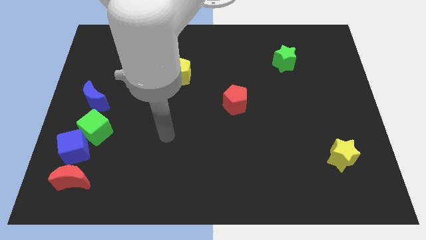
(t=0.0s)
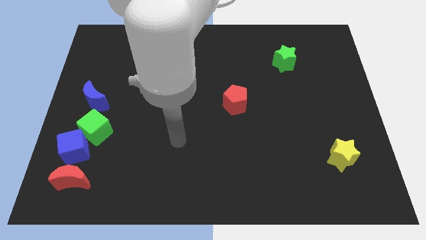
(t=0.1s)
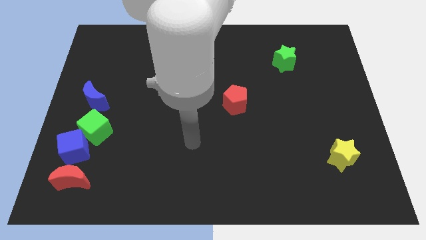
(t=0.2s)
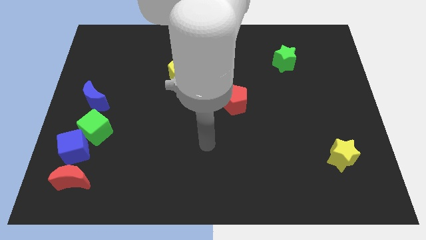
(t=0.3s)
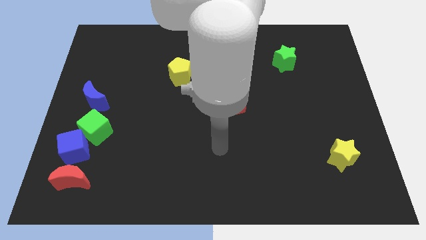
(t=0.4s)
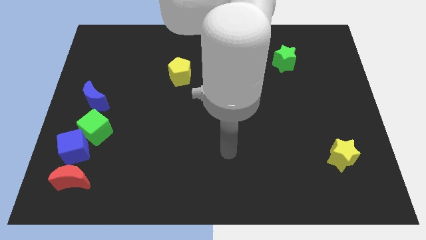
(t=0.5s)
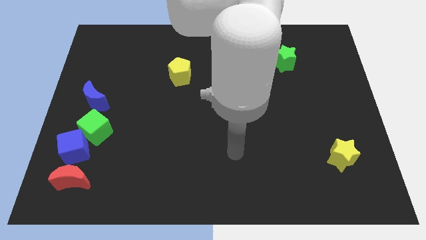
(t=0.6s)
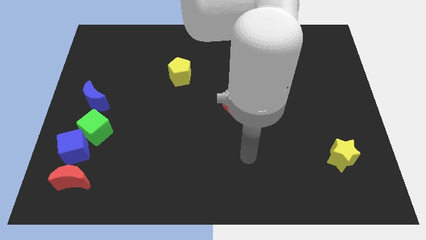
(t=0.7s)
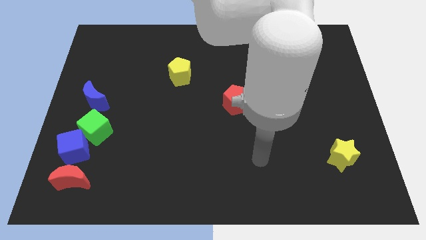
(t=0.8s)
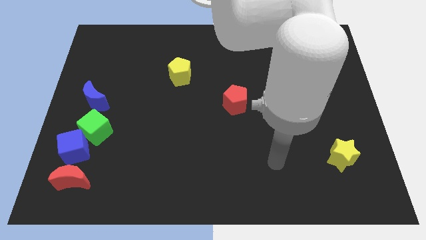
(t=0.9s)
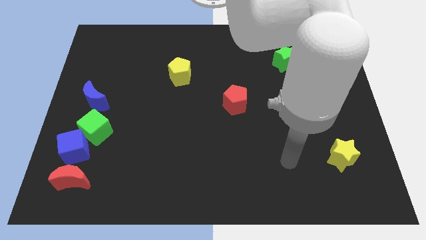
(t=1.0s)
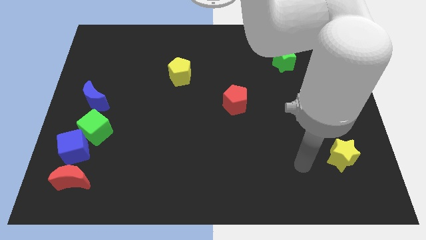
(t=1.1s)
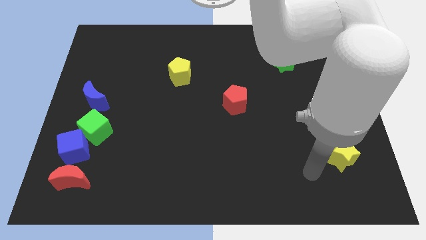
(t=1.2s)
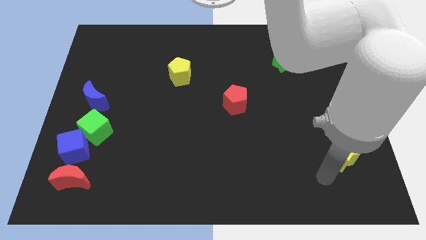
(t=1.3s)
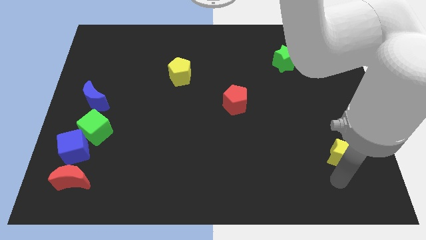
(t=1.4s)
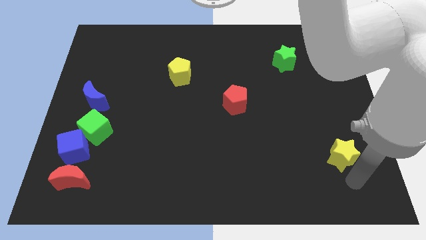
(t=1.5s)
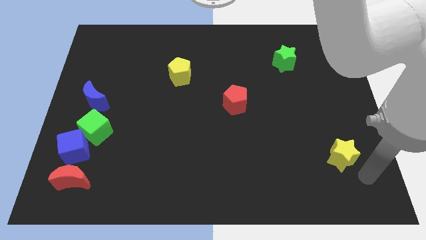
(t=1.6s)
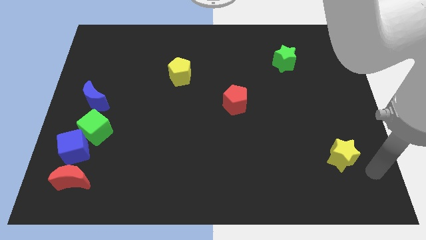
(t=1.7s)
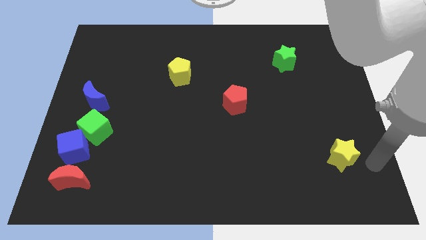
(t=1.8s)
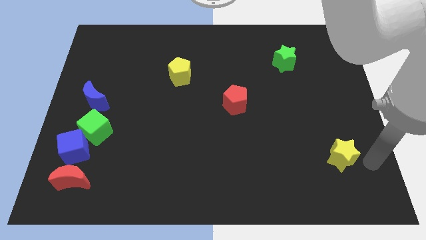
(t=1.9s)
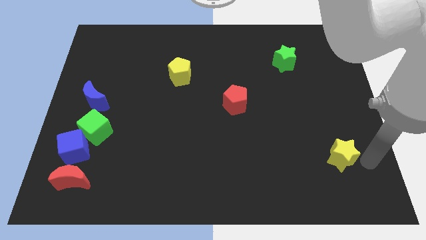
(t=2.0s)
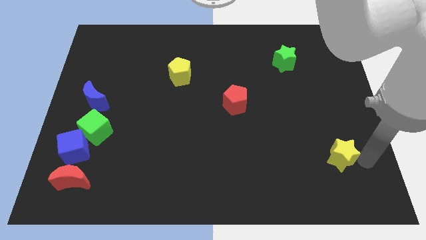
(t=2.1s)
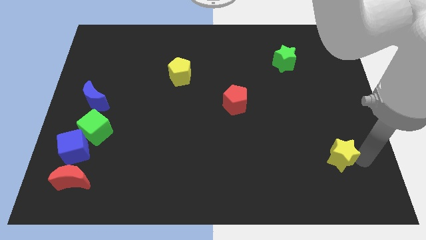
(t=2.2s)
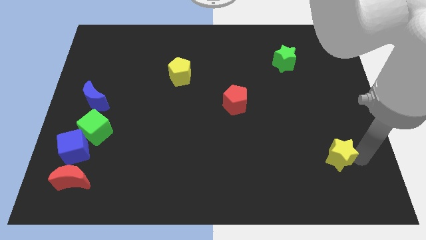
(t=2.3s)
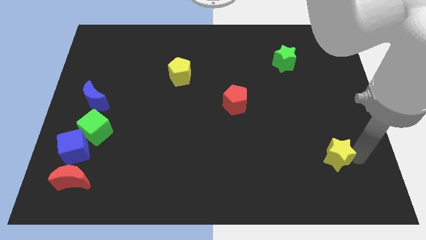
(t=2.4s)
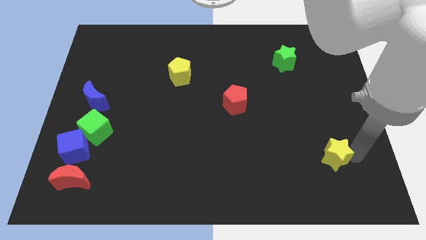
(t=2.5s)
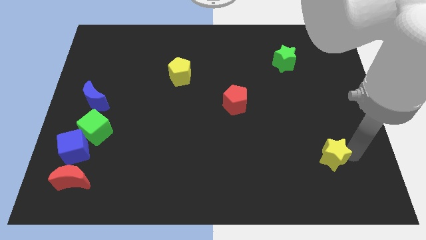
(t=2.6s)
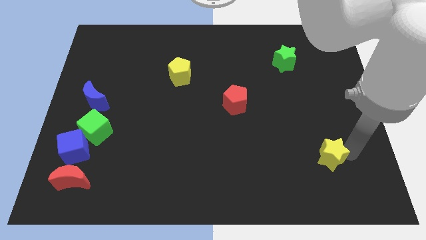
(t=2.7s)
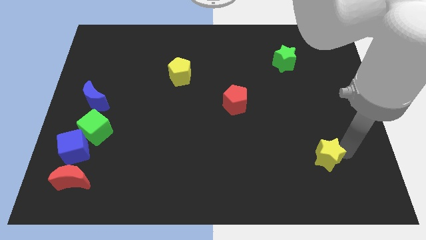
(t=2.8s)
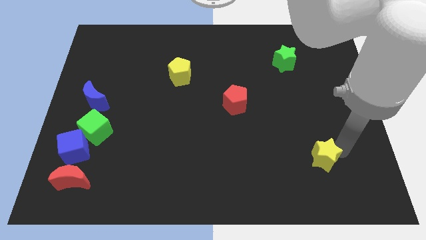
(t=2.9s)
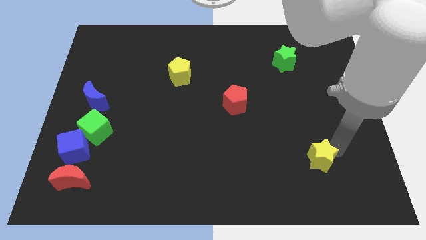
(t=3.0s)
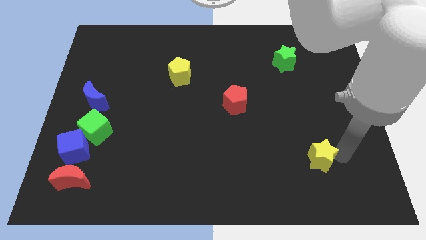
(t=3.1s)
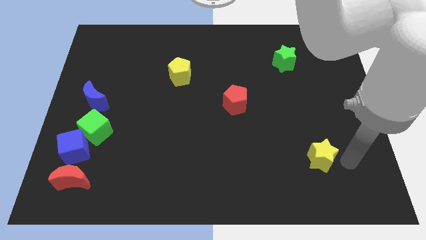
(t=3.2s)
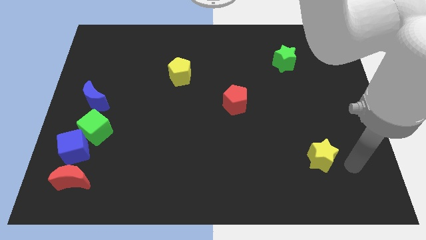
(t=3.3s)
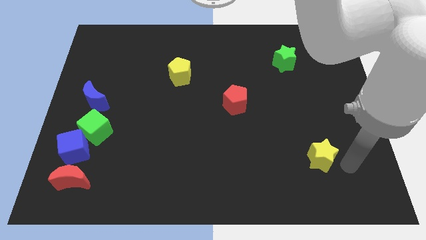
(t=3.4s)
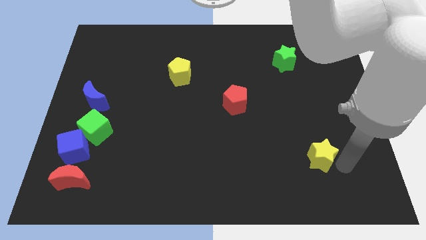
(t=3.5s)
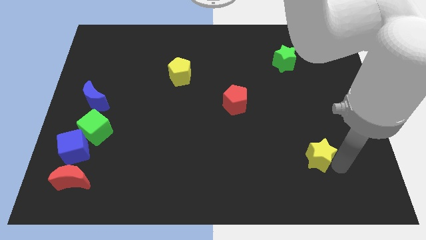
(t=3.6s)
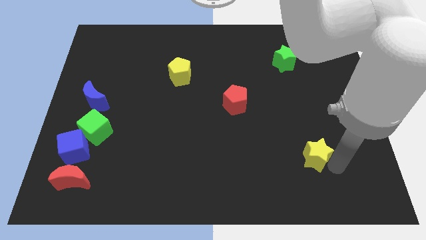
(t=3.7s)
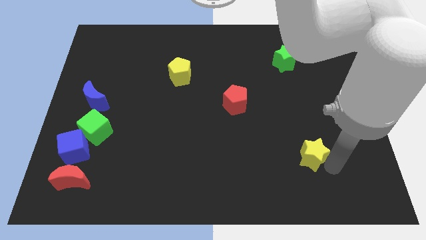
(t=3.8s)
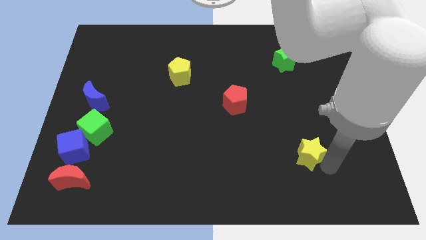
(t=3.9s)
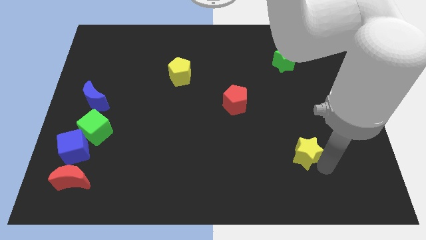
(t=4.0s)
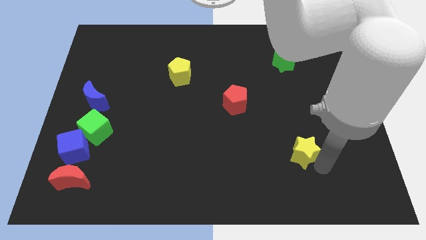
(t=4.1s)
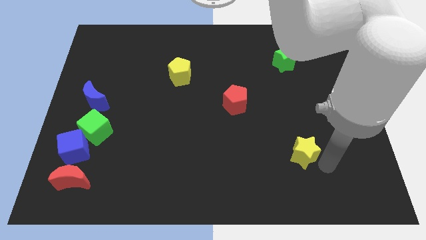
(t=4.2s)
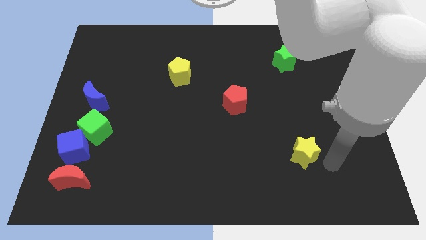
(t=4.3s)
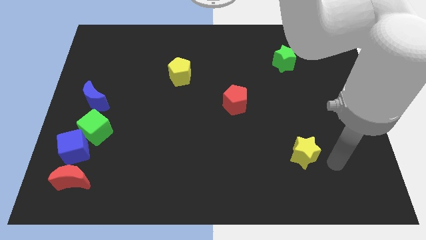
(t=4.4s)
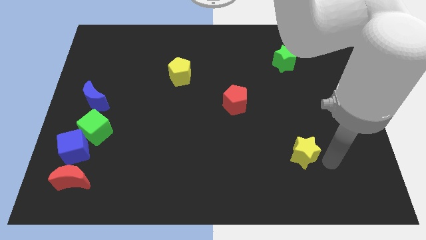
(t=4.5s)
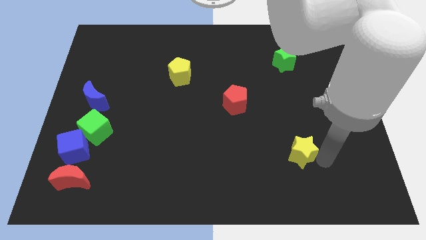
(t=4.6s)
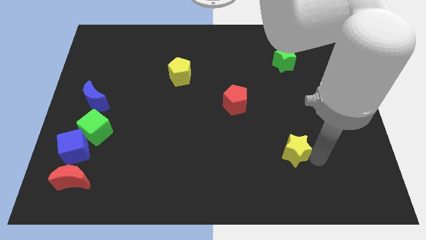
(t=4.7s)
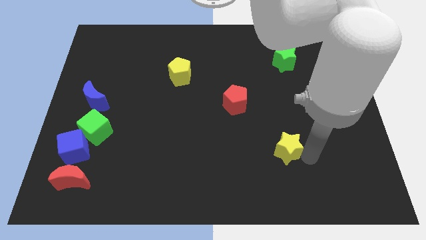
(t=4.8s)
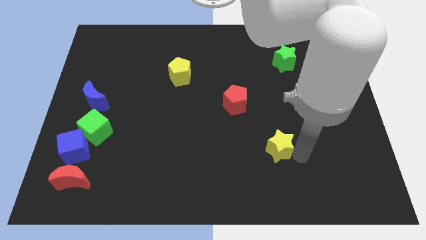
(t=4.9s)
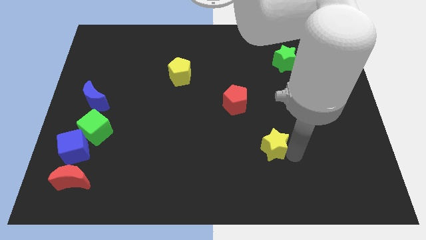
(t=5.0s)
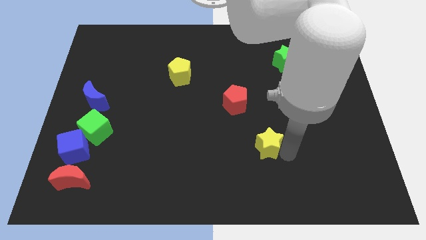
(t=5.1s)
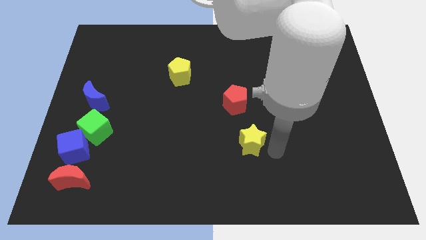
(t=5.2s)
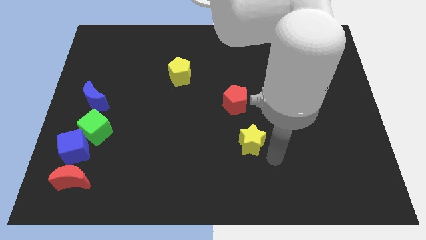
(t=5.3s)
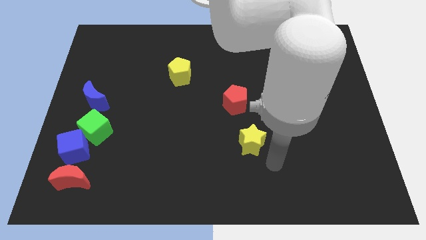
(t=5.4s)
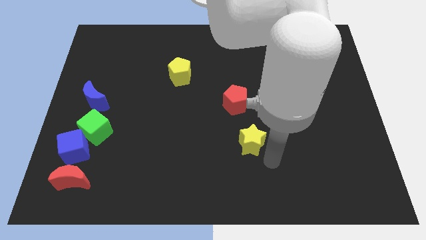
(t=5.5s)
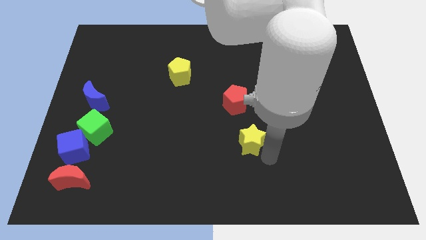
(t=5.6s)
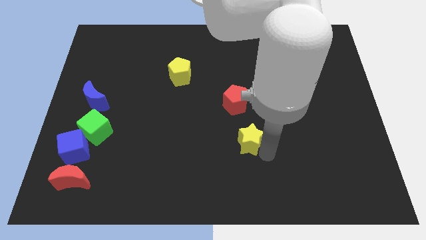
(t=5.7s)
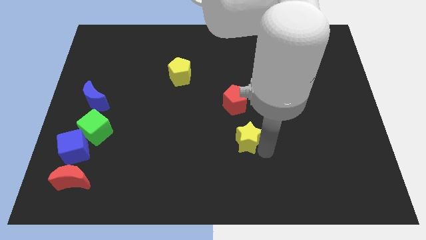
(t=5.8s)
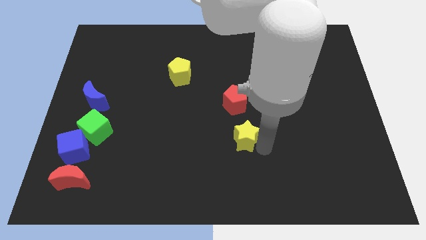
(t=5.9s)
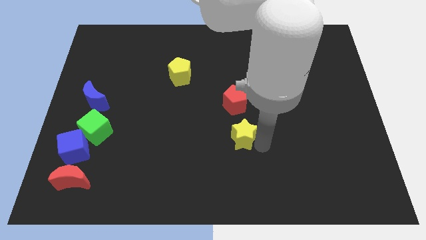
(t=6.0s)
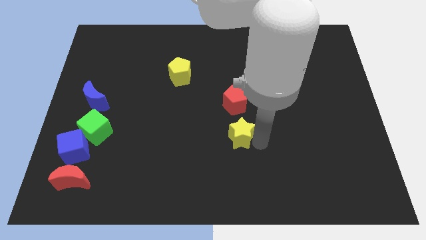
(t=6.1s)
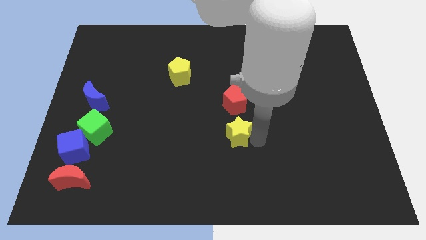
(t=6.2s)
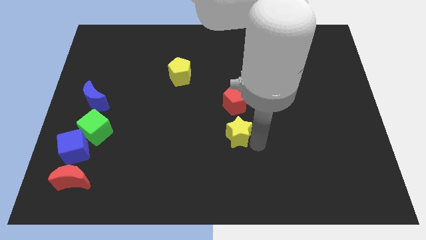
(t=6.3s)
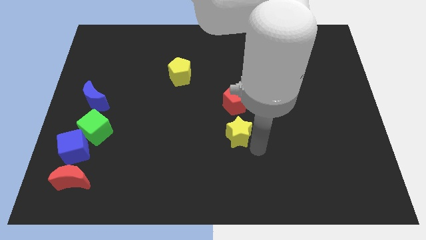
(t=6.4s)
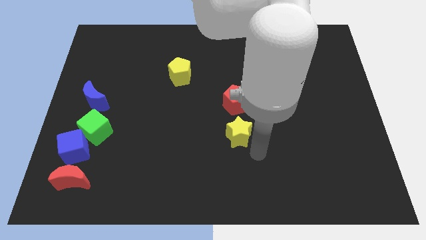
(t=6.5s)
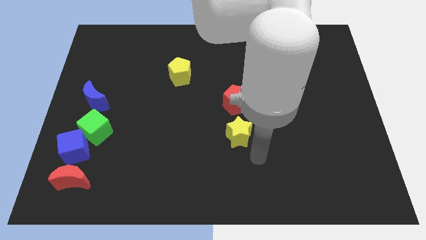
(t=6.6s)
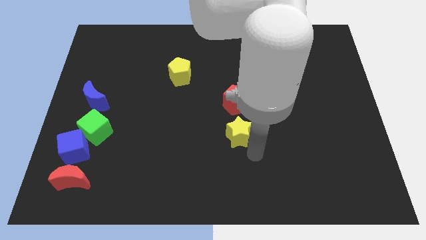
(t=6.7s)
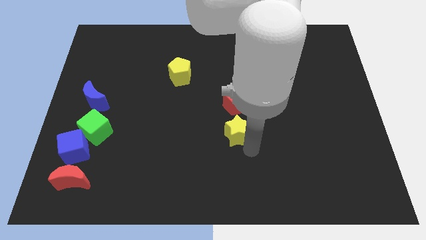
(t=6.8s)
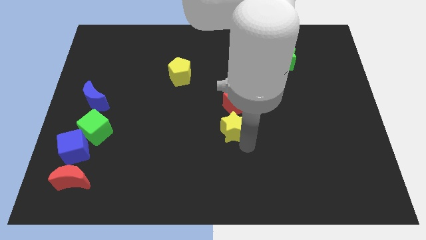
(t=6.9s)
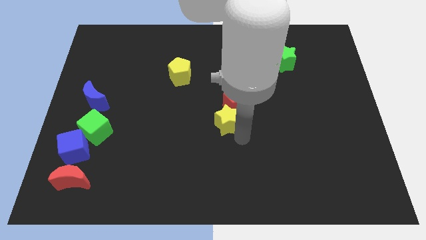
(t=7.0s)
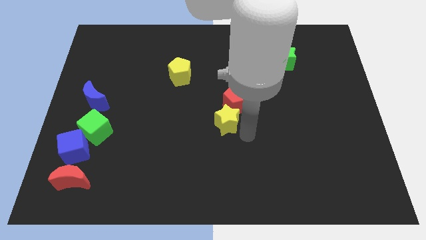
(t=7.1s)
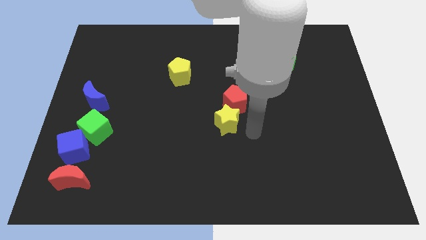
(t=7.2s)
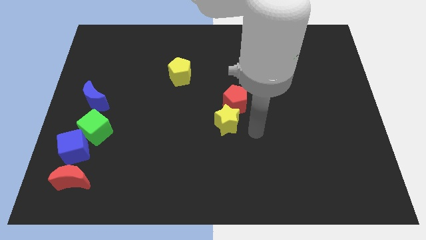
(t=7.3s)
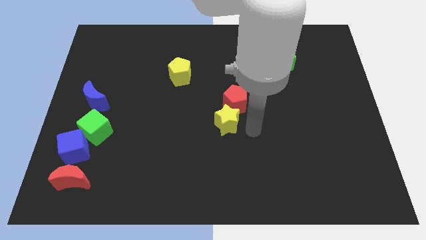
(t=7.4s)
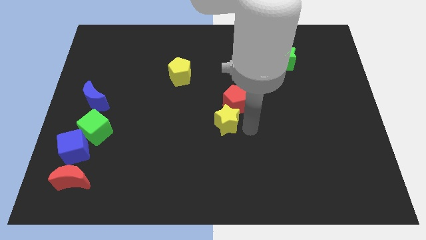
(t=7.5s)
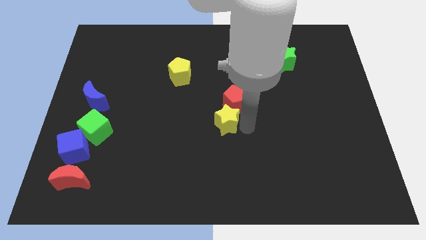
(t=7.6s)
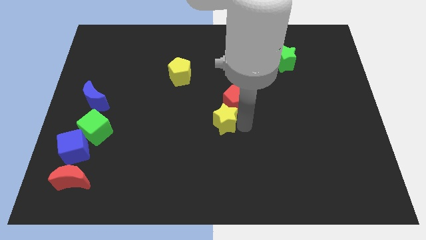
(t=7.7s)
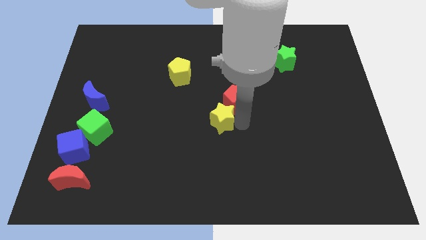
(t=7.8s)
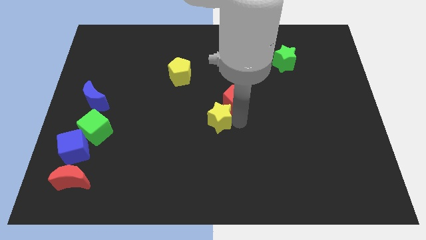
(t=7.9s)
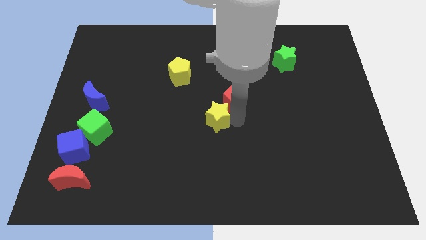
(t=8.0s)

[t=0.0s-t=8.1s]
put the yellow star to the left of the red pentagon
